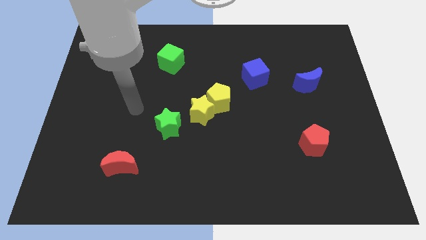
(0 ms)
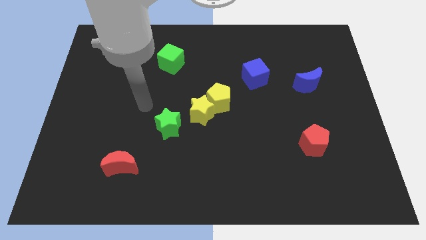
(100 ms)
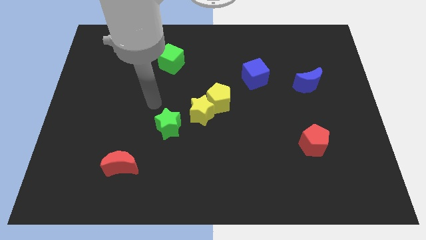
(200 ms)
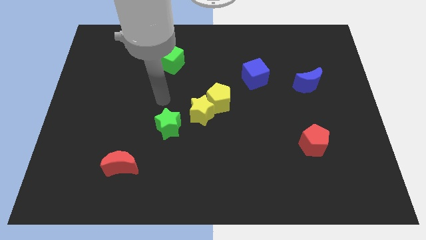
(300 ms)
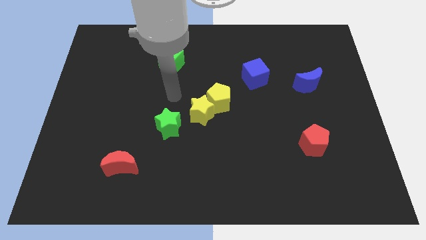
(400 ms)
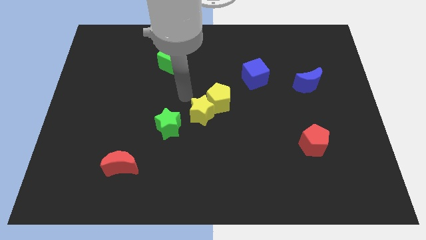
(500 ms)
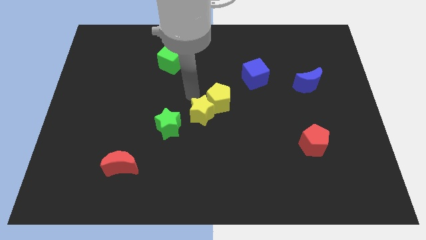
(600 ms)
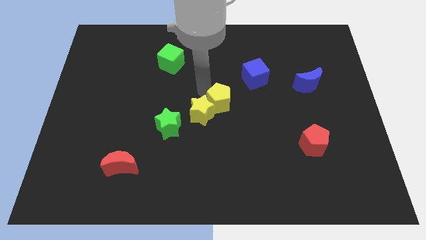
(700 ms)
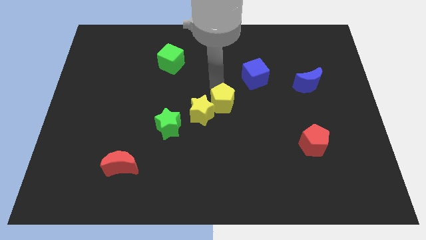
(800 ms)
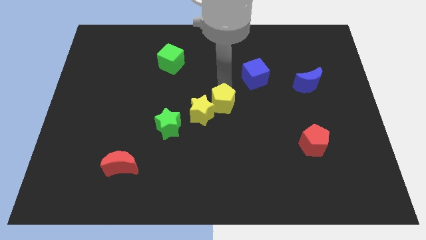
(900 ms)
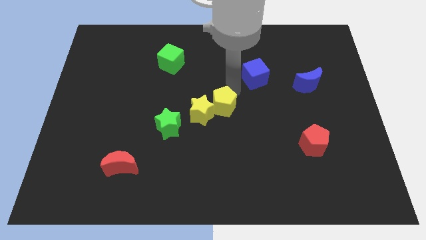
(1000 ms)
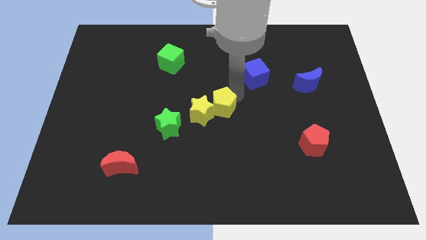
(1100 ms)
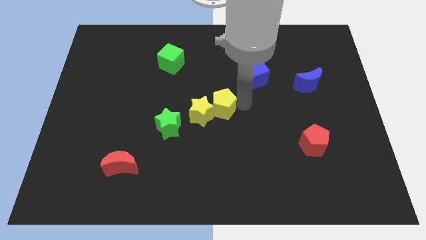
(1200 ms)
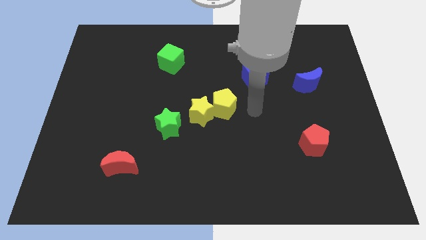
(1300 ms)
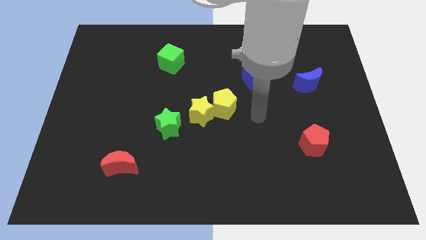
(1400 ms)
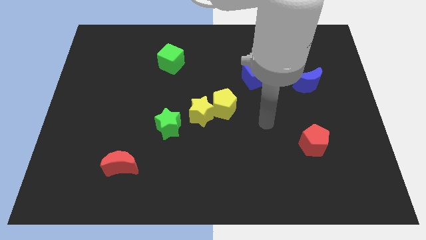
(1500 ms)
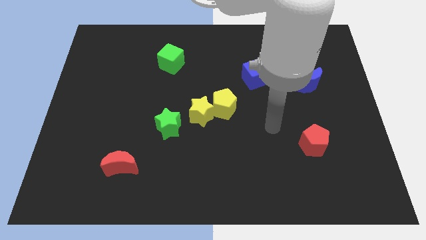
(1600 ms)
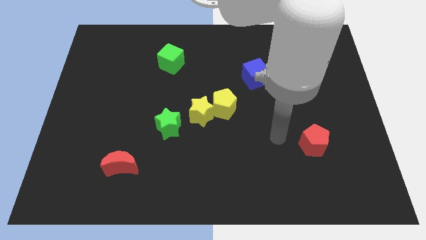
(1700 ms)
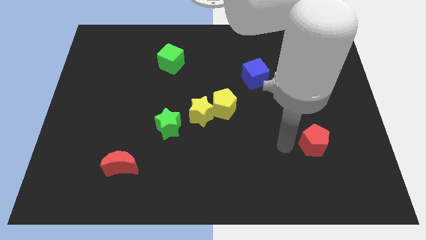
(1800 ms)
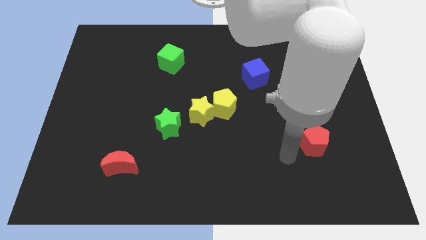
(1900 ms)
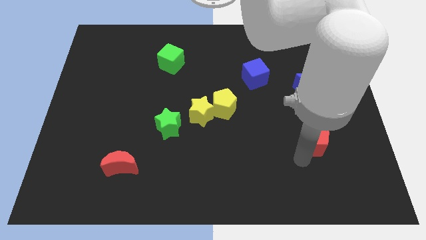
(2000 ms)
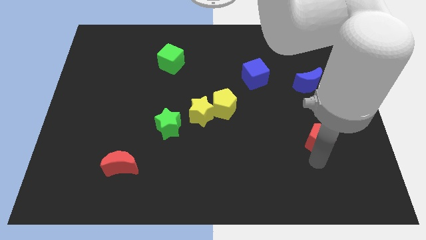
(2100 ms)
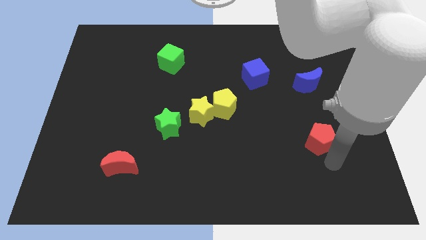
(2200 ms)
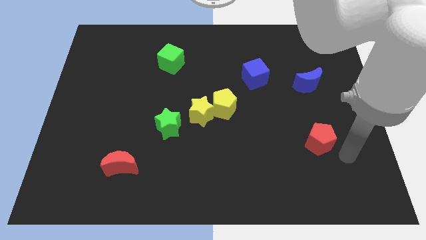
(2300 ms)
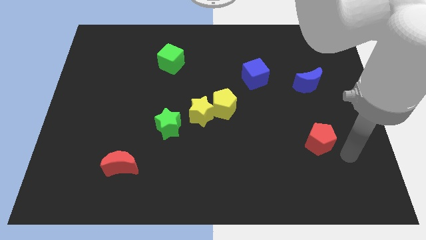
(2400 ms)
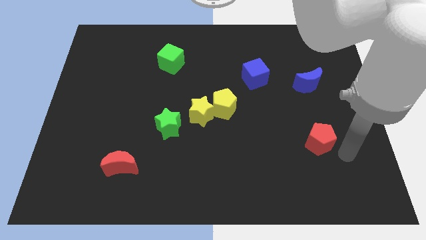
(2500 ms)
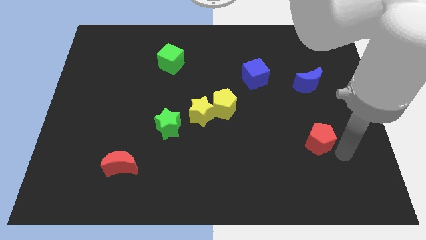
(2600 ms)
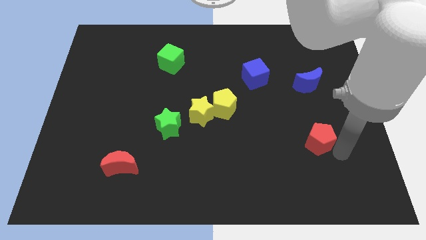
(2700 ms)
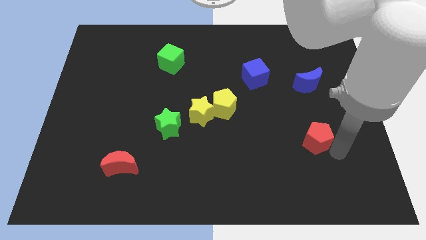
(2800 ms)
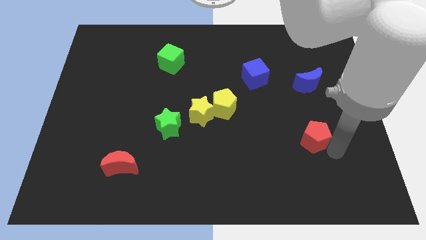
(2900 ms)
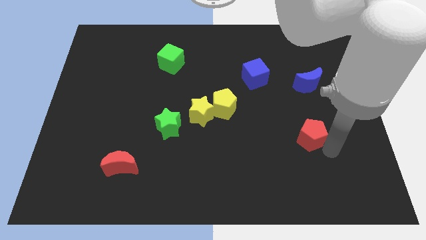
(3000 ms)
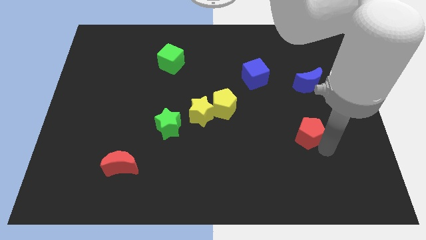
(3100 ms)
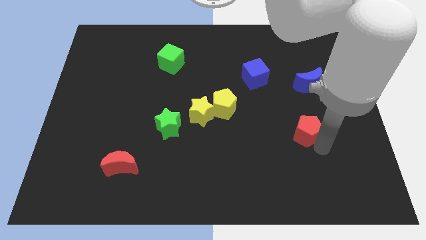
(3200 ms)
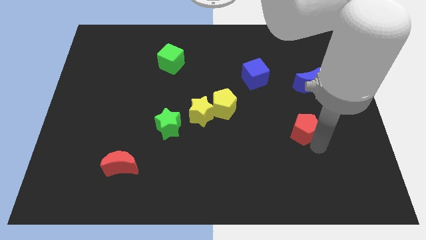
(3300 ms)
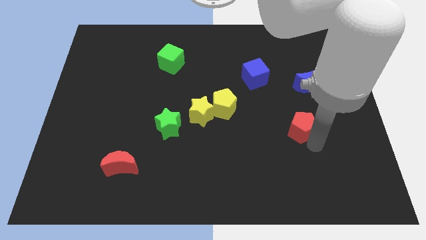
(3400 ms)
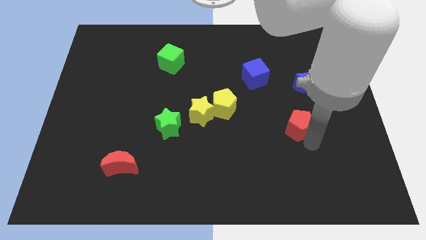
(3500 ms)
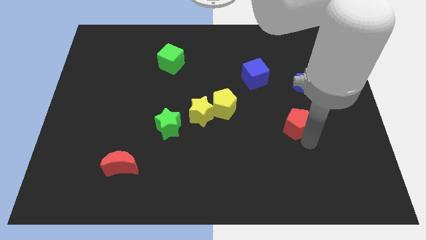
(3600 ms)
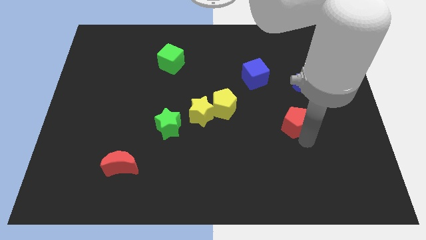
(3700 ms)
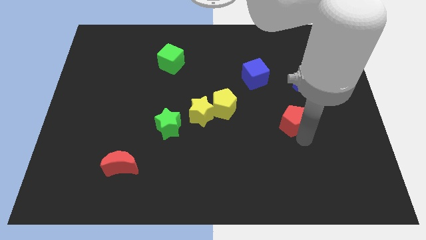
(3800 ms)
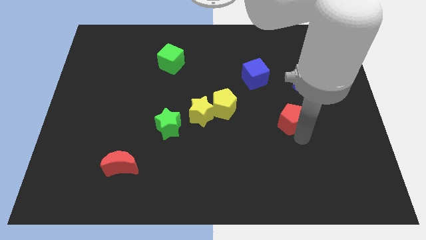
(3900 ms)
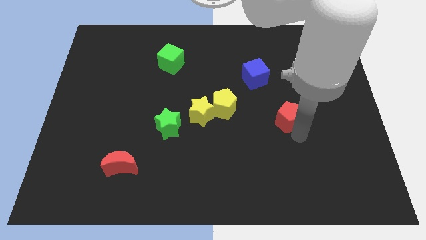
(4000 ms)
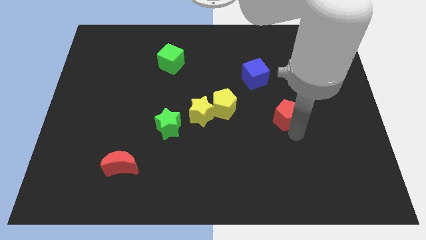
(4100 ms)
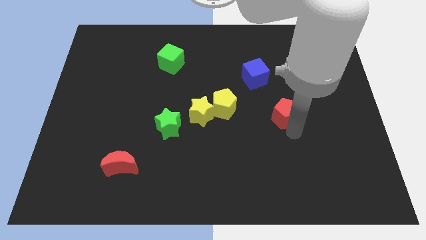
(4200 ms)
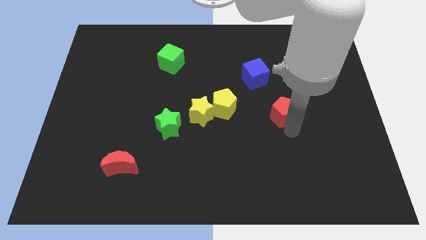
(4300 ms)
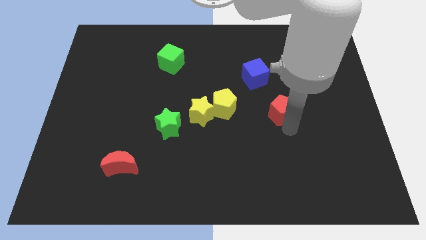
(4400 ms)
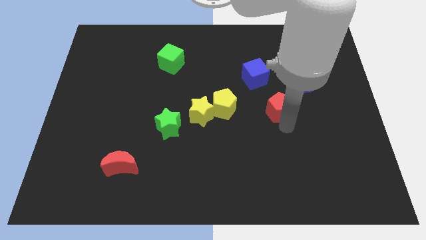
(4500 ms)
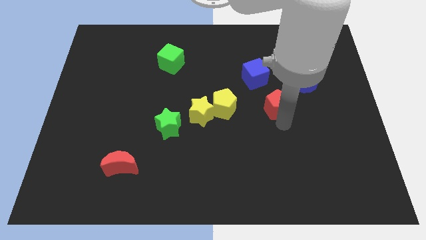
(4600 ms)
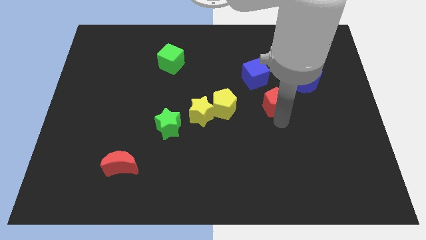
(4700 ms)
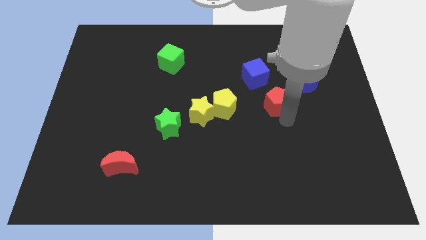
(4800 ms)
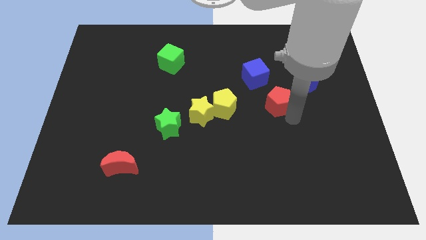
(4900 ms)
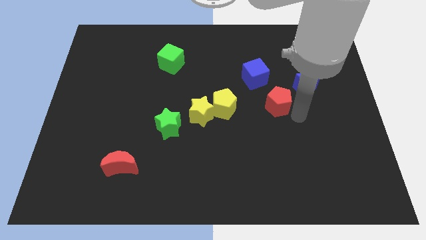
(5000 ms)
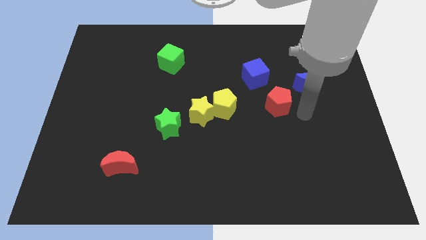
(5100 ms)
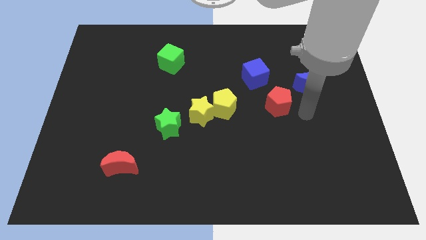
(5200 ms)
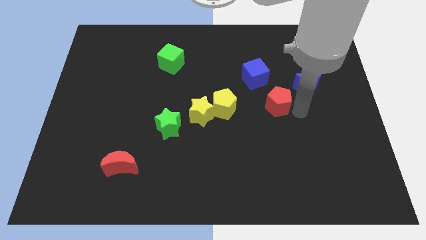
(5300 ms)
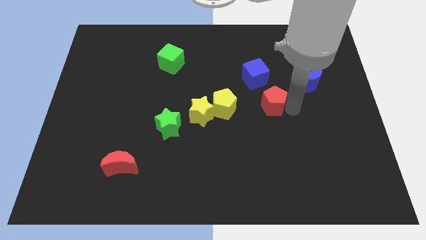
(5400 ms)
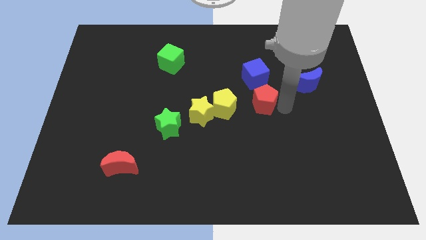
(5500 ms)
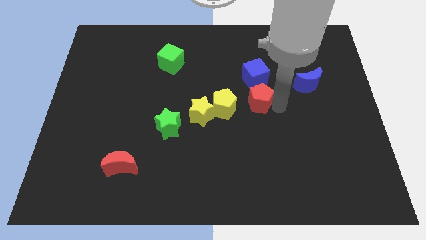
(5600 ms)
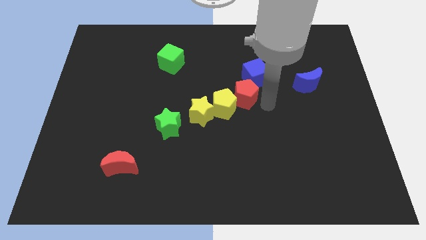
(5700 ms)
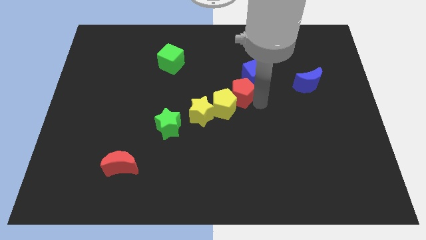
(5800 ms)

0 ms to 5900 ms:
push the red pentagon up and then left

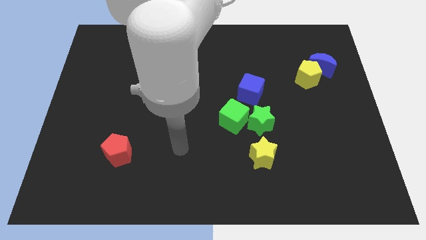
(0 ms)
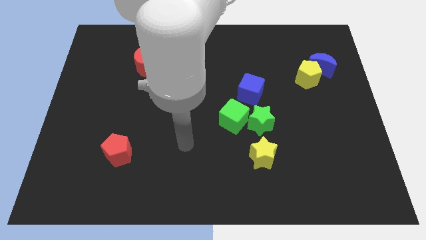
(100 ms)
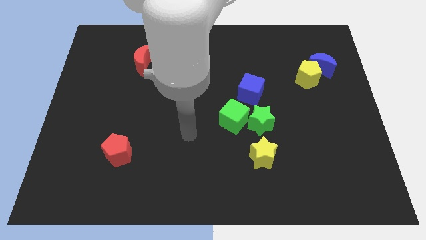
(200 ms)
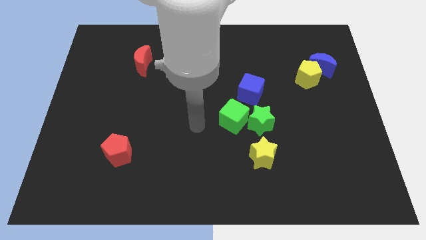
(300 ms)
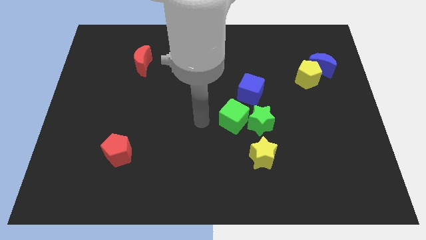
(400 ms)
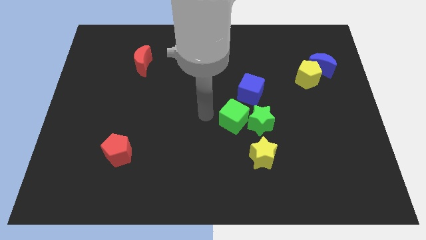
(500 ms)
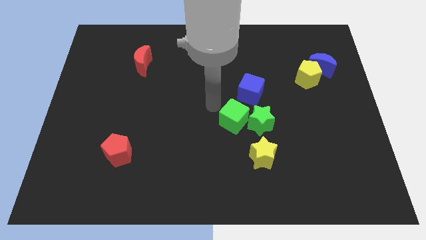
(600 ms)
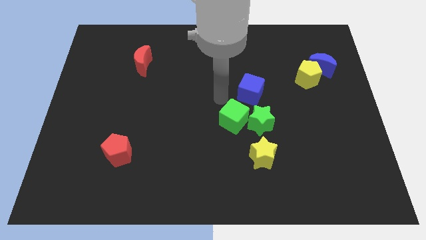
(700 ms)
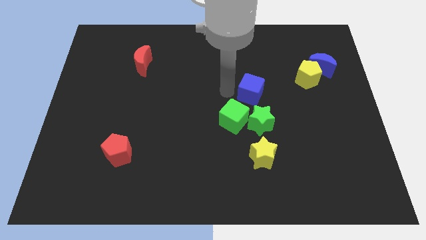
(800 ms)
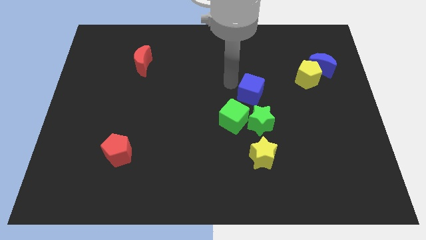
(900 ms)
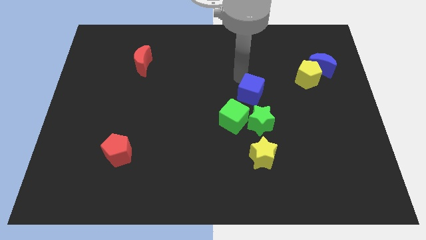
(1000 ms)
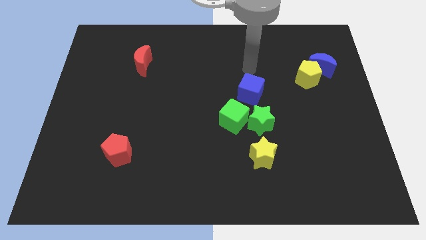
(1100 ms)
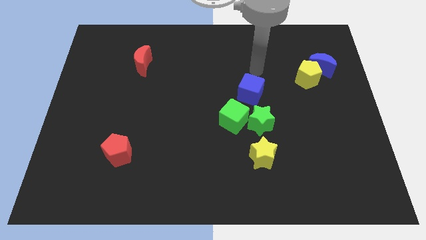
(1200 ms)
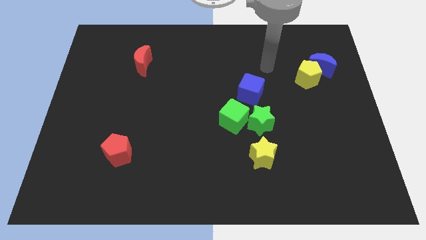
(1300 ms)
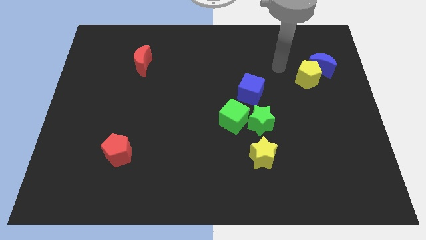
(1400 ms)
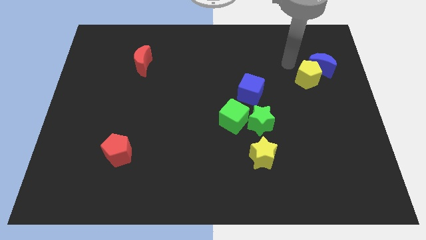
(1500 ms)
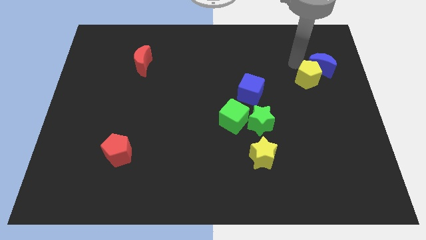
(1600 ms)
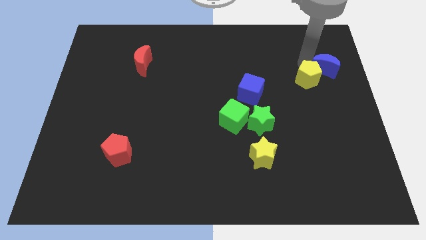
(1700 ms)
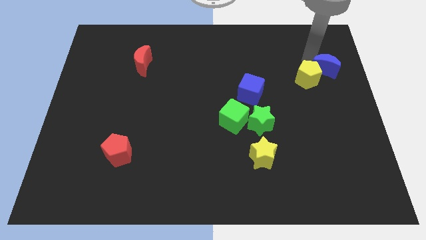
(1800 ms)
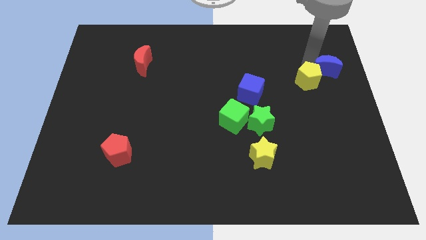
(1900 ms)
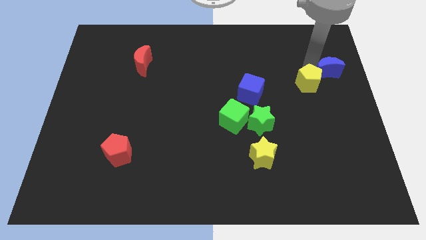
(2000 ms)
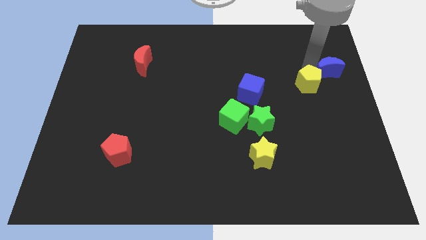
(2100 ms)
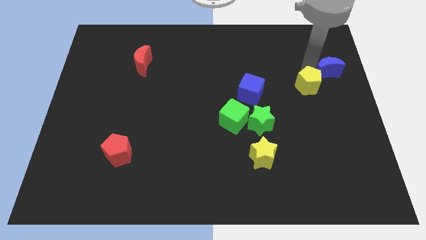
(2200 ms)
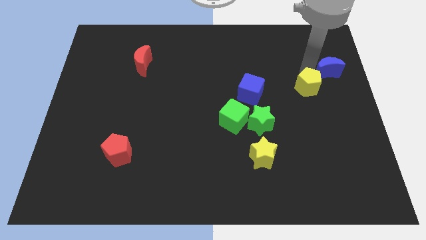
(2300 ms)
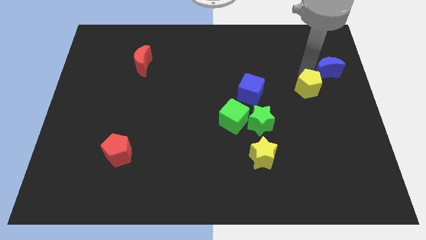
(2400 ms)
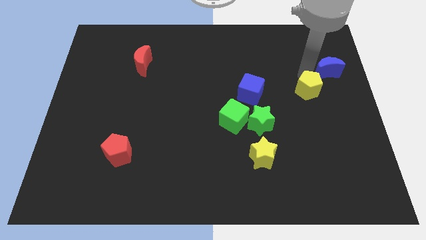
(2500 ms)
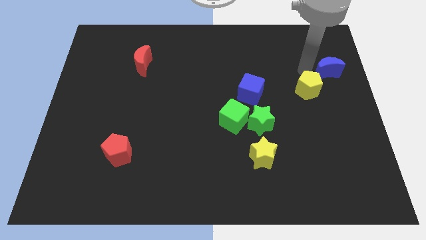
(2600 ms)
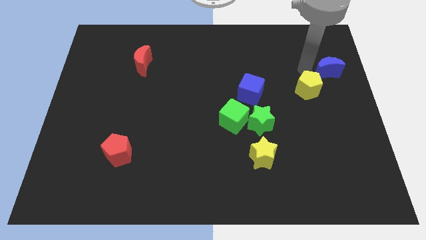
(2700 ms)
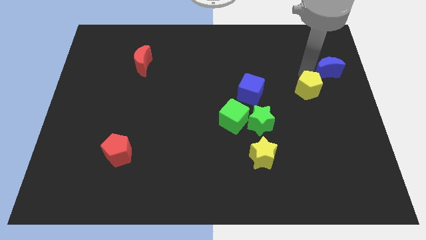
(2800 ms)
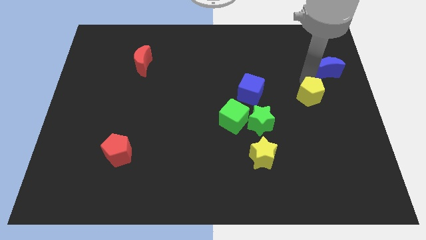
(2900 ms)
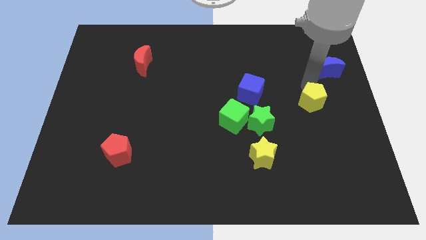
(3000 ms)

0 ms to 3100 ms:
slide the yellow pentagon a little downwards
